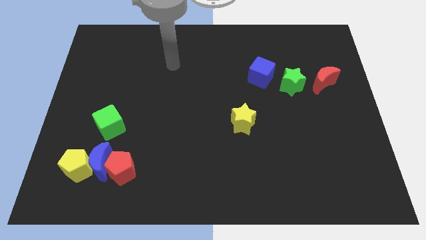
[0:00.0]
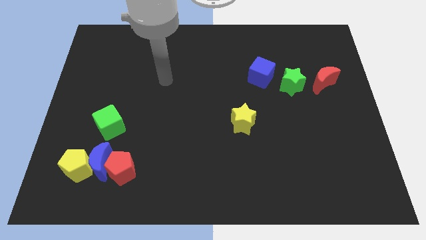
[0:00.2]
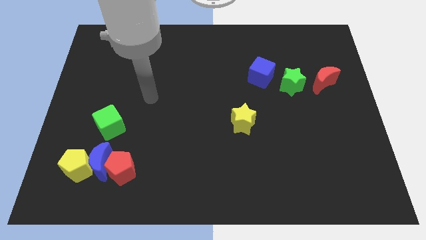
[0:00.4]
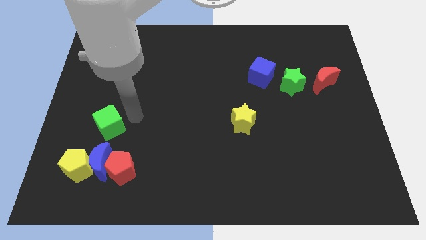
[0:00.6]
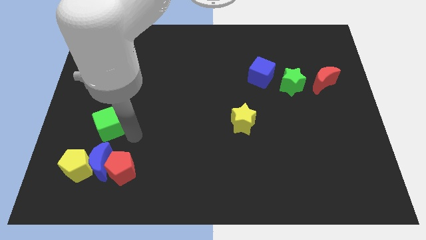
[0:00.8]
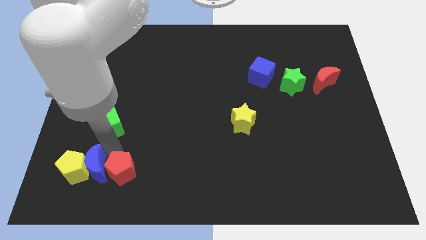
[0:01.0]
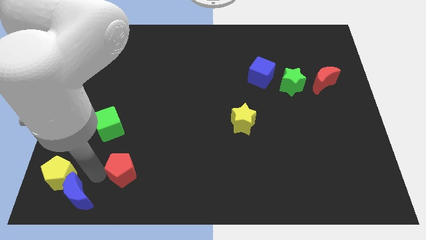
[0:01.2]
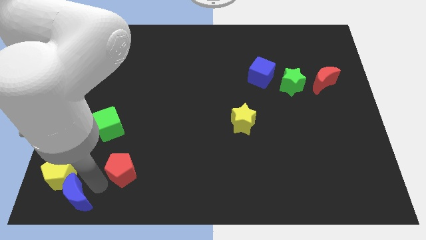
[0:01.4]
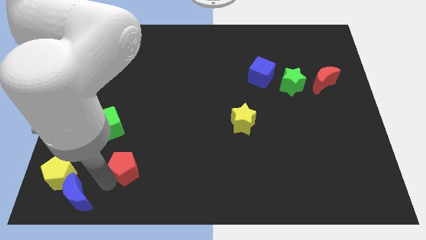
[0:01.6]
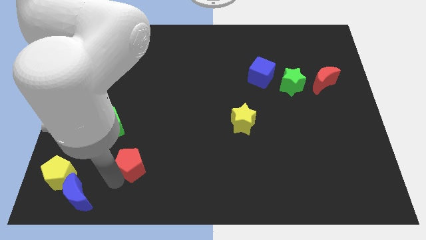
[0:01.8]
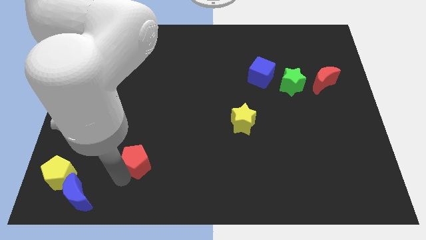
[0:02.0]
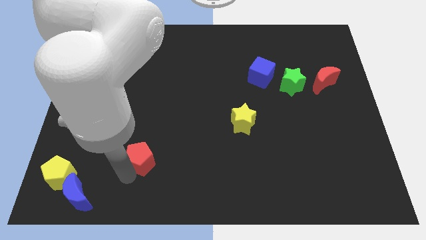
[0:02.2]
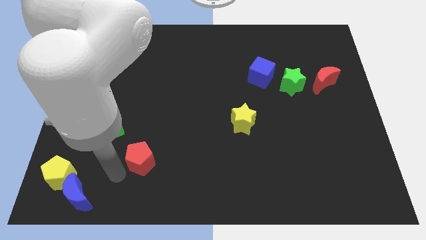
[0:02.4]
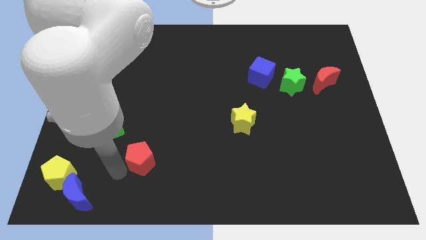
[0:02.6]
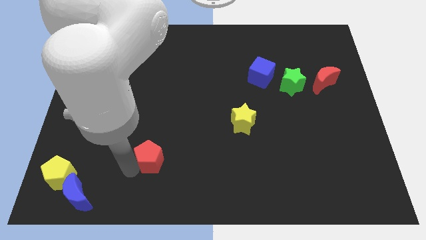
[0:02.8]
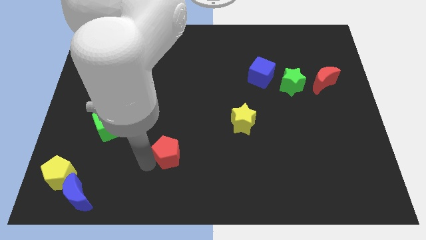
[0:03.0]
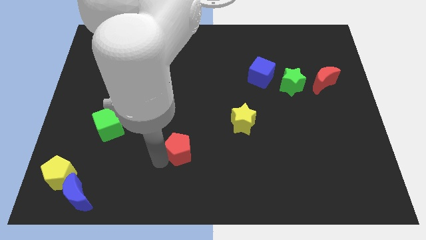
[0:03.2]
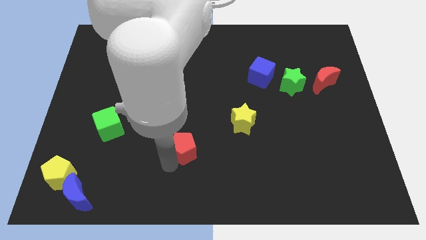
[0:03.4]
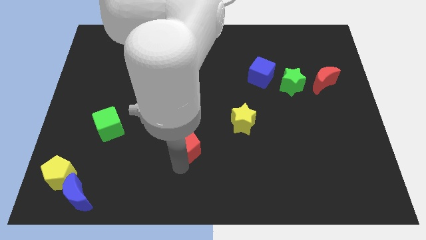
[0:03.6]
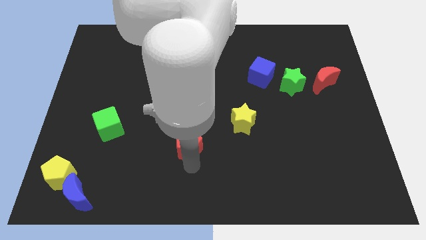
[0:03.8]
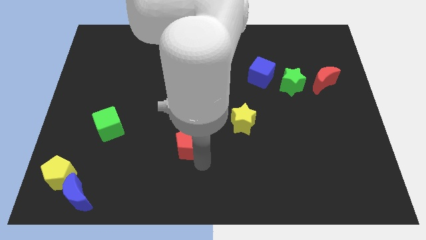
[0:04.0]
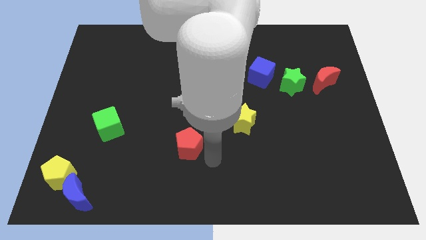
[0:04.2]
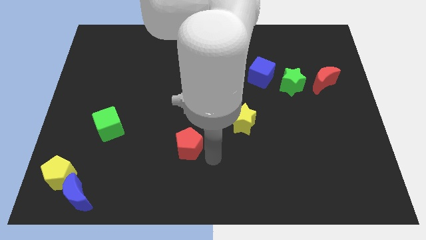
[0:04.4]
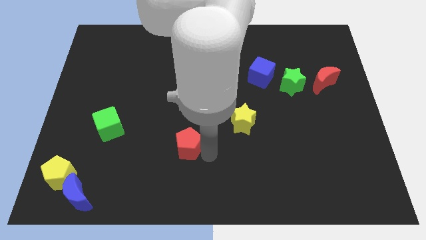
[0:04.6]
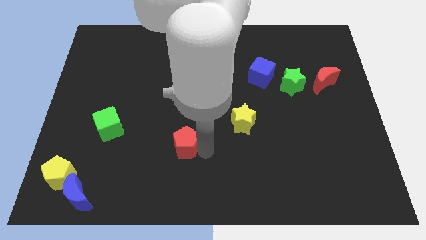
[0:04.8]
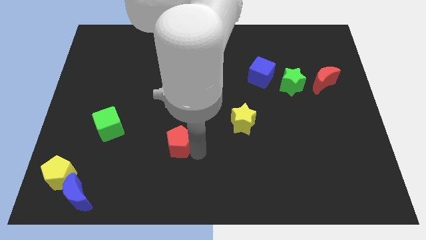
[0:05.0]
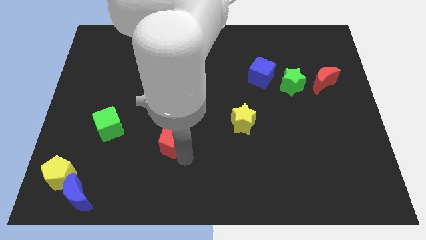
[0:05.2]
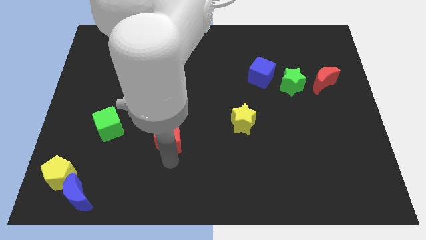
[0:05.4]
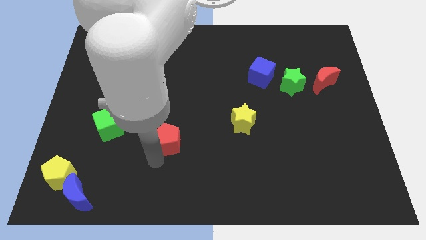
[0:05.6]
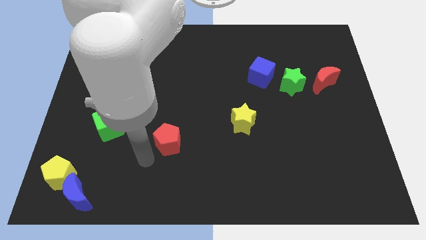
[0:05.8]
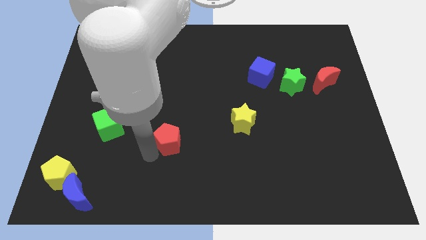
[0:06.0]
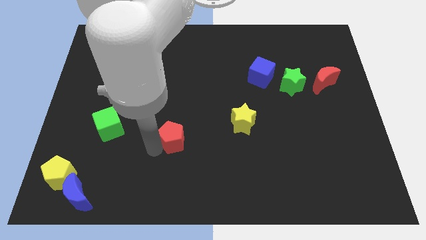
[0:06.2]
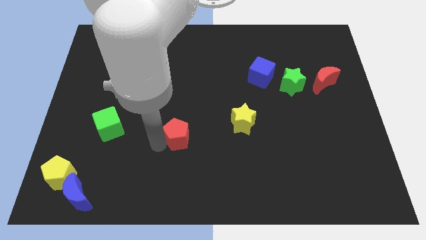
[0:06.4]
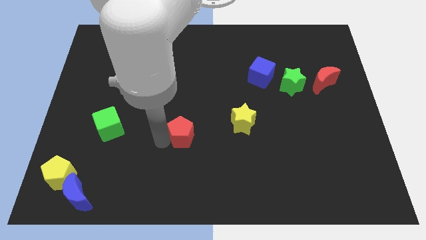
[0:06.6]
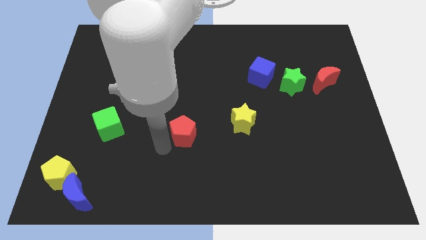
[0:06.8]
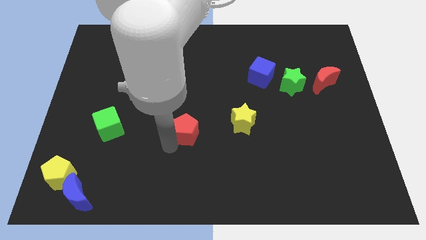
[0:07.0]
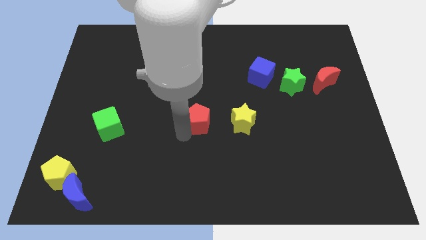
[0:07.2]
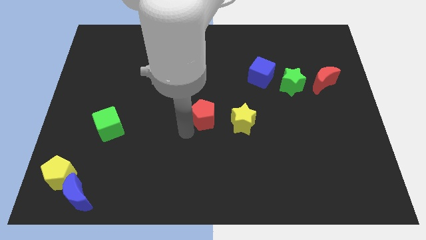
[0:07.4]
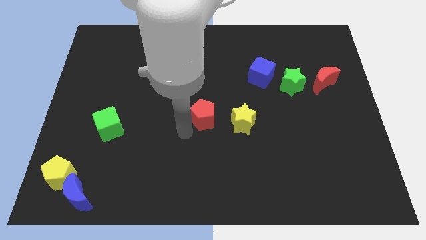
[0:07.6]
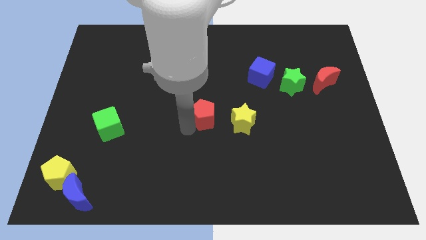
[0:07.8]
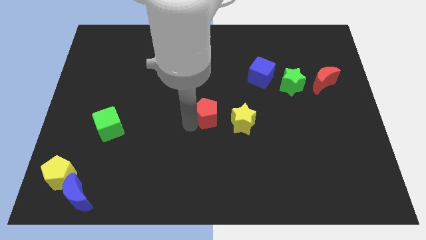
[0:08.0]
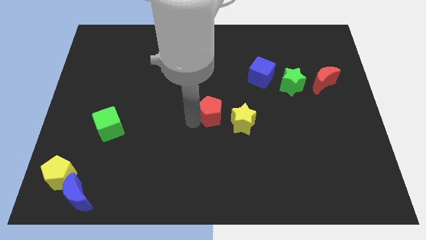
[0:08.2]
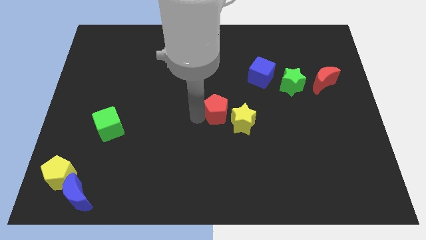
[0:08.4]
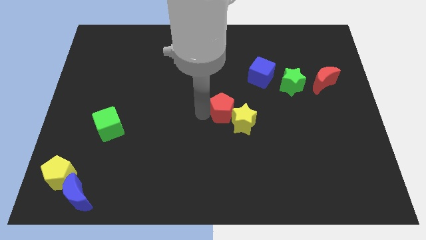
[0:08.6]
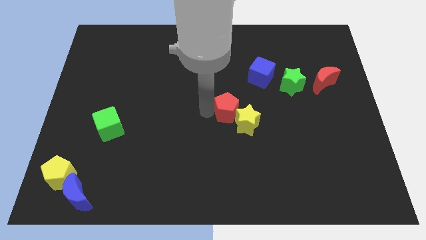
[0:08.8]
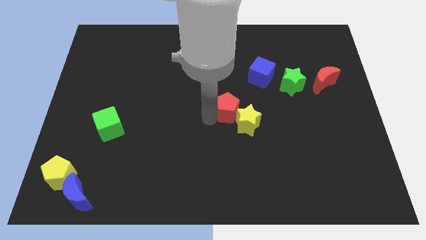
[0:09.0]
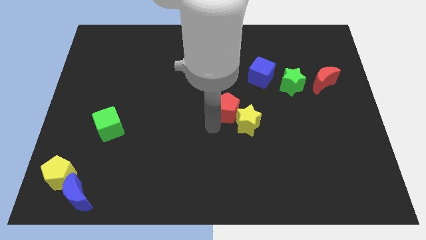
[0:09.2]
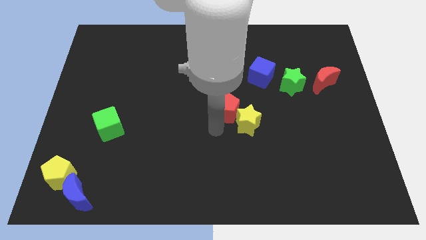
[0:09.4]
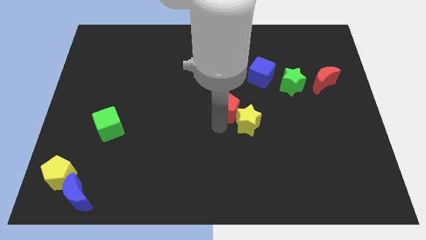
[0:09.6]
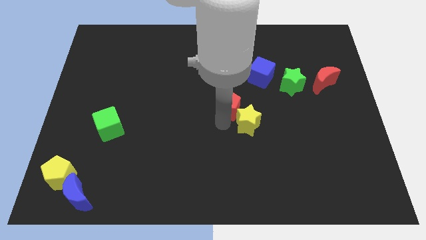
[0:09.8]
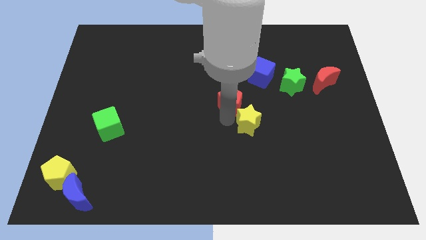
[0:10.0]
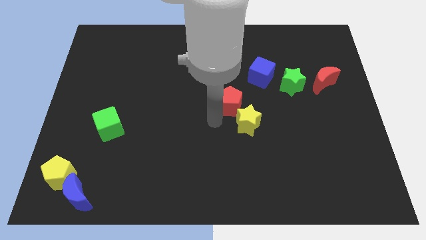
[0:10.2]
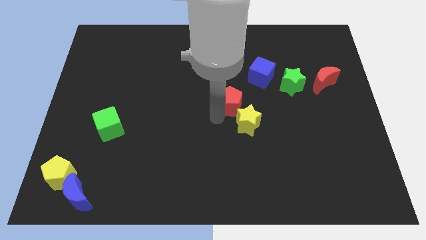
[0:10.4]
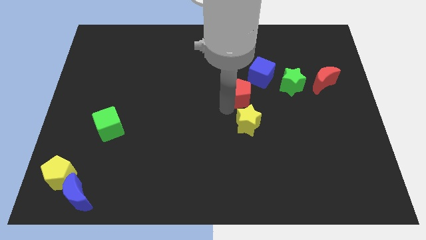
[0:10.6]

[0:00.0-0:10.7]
slide the red pentagon just left of the green star

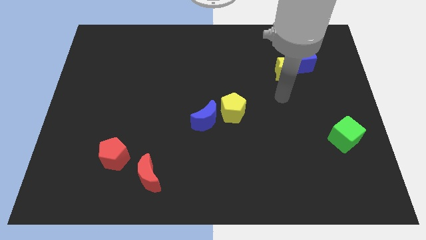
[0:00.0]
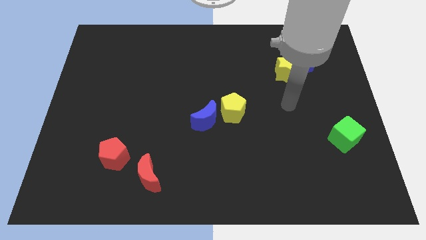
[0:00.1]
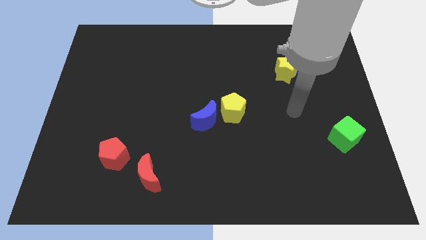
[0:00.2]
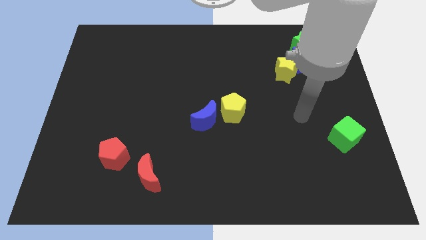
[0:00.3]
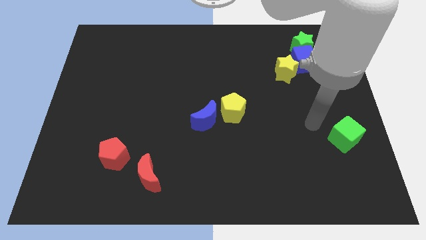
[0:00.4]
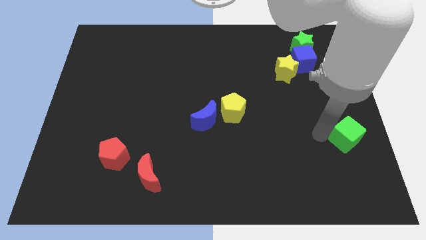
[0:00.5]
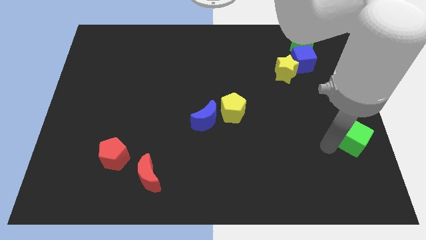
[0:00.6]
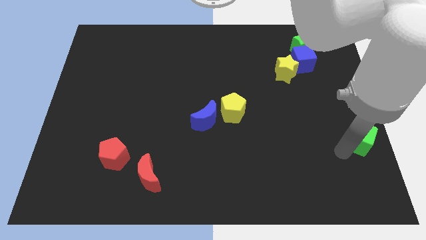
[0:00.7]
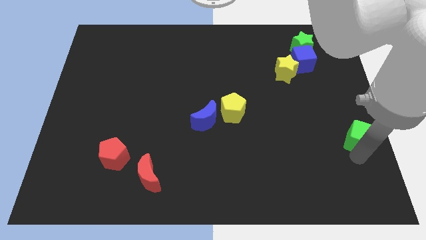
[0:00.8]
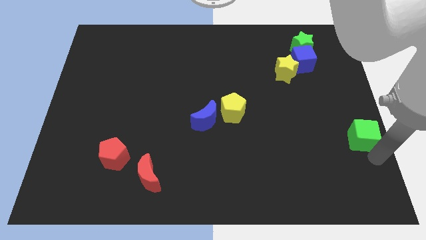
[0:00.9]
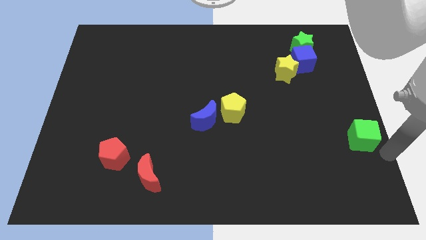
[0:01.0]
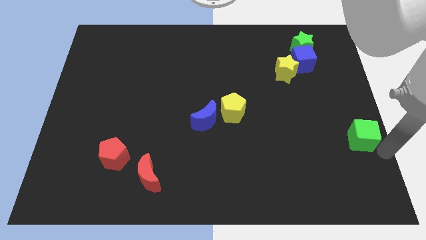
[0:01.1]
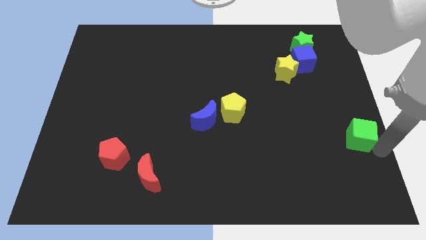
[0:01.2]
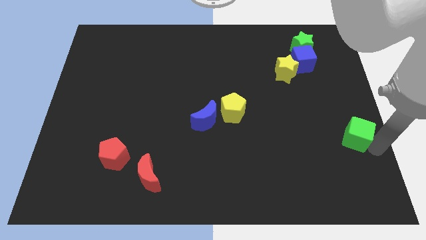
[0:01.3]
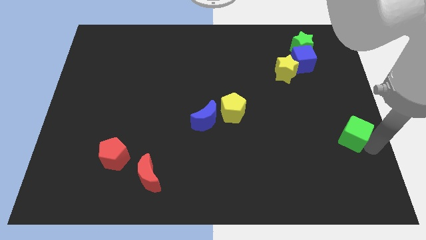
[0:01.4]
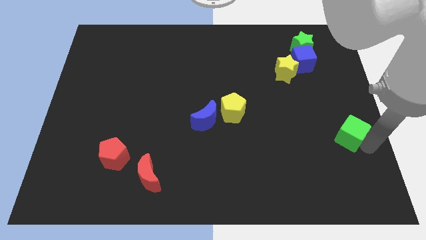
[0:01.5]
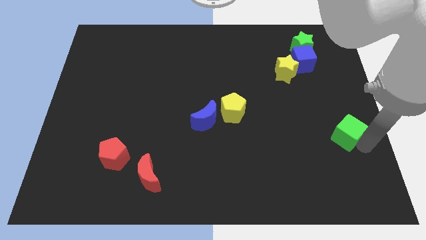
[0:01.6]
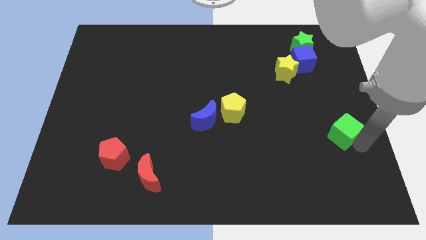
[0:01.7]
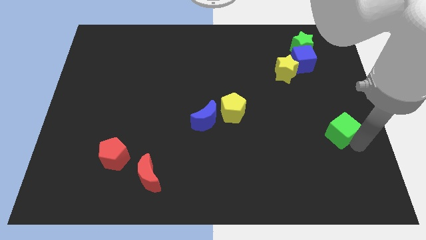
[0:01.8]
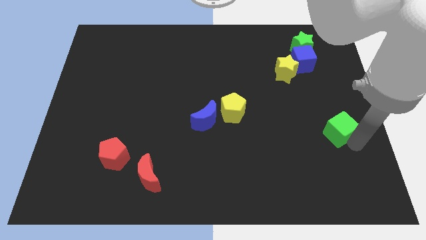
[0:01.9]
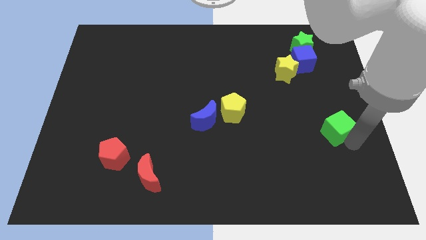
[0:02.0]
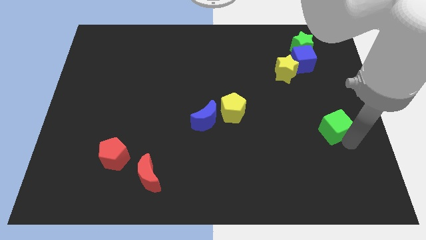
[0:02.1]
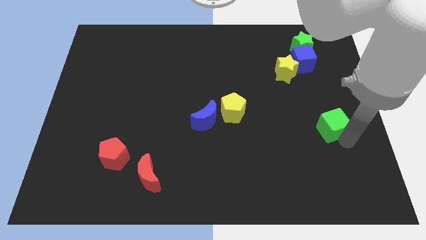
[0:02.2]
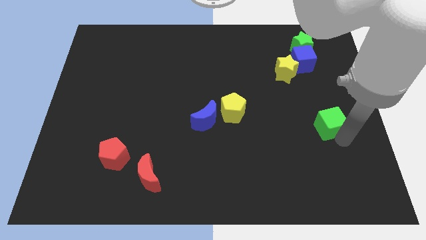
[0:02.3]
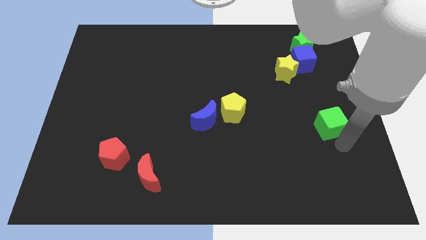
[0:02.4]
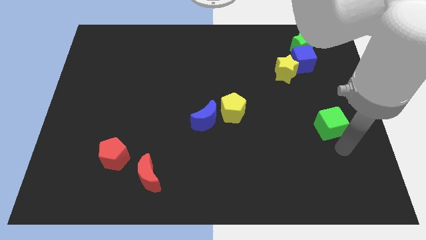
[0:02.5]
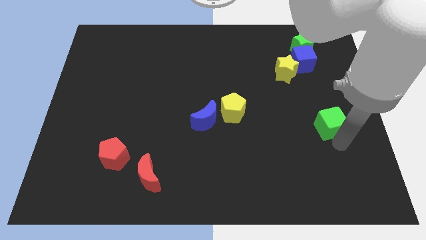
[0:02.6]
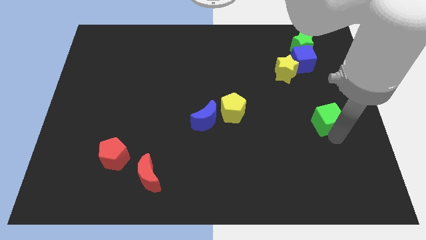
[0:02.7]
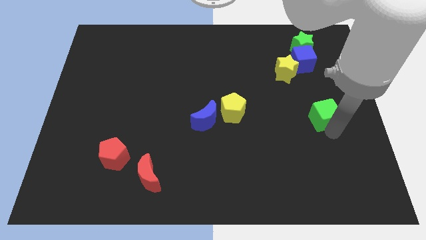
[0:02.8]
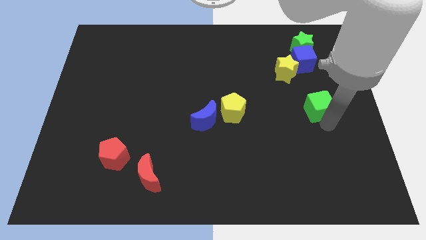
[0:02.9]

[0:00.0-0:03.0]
slide the green cube below the blue cube

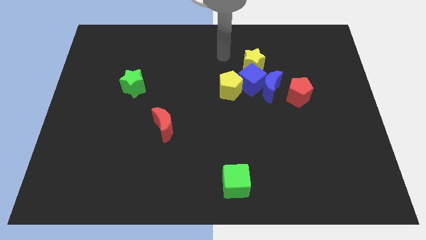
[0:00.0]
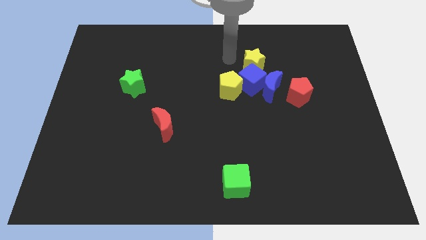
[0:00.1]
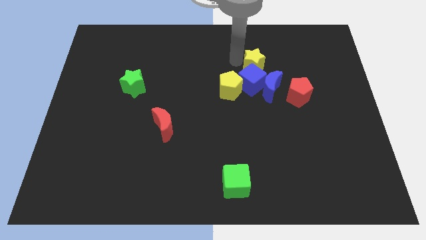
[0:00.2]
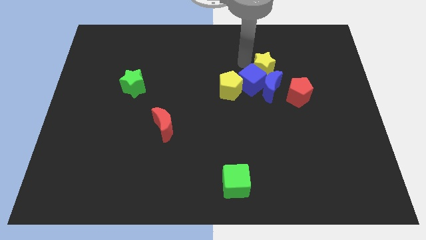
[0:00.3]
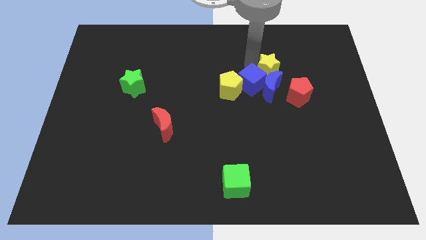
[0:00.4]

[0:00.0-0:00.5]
move the yellow star to the top right of the blue moon
